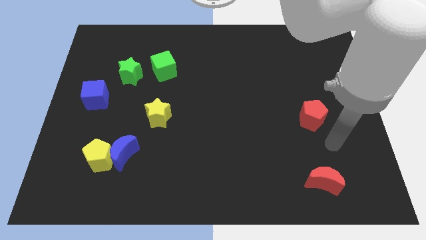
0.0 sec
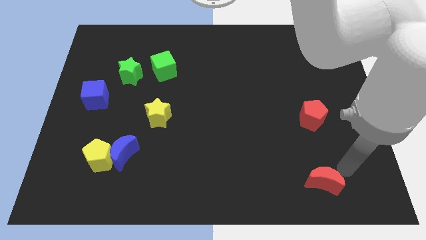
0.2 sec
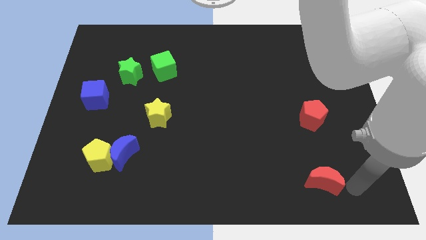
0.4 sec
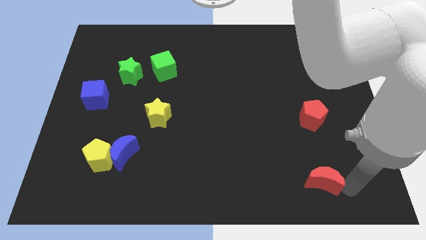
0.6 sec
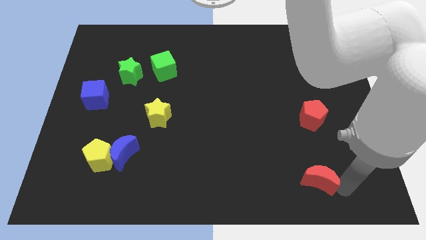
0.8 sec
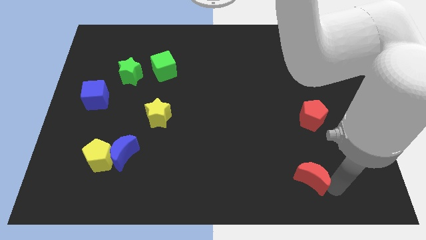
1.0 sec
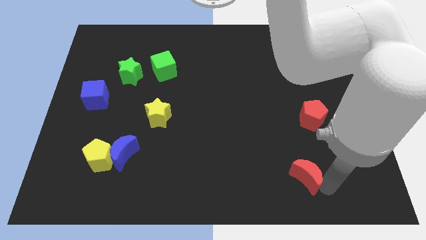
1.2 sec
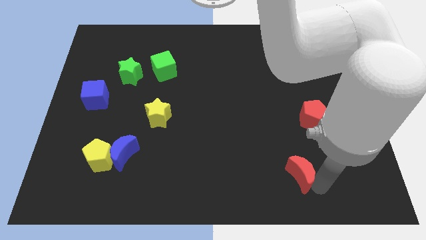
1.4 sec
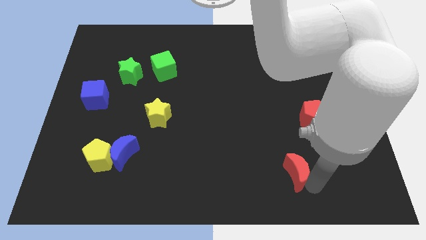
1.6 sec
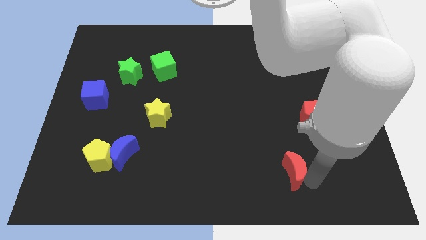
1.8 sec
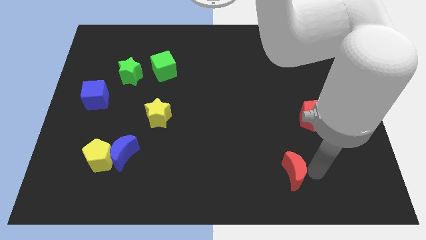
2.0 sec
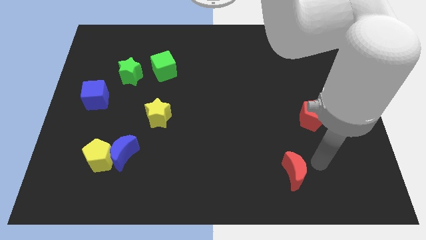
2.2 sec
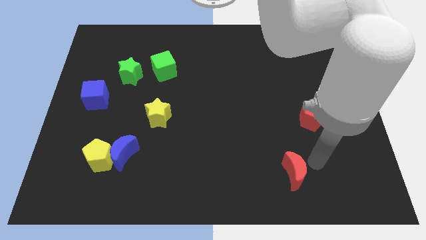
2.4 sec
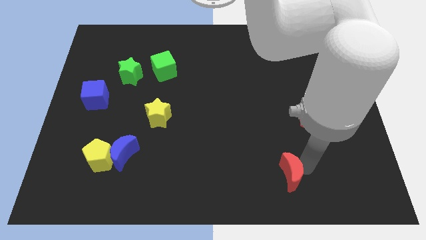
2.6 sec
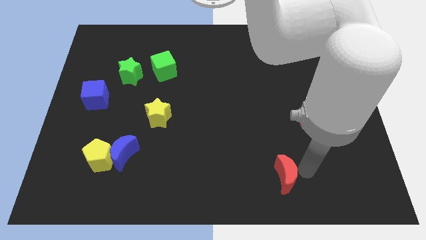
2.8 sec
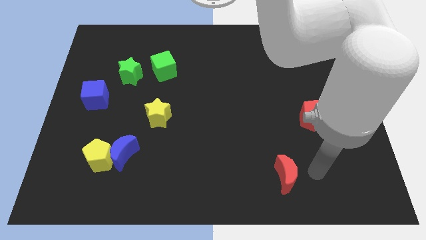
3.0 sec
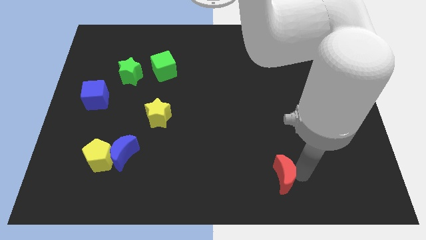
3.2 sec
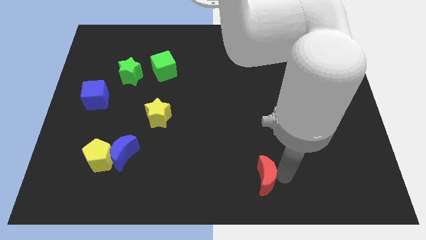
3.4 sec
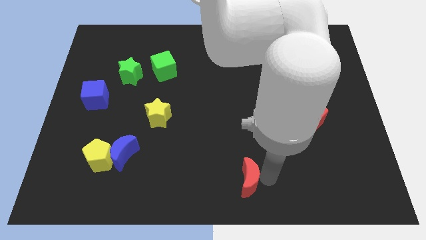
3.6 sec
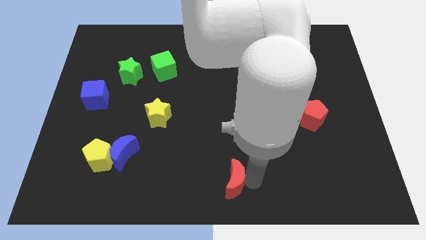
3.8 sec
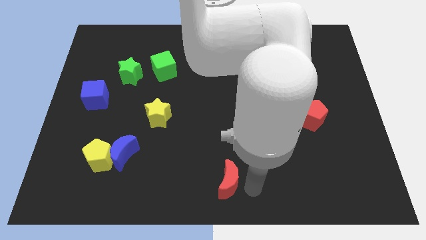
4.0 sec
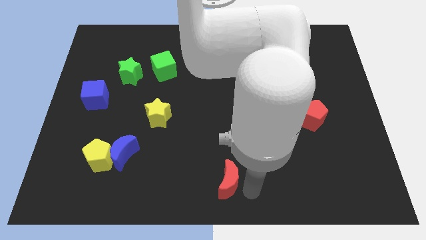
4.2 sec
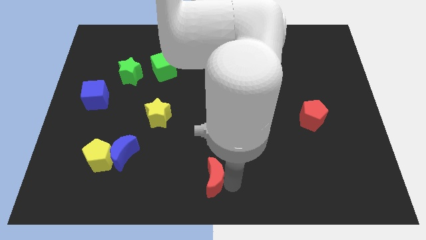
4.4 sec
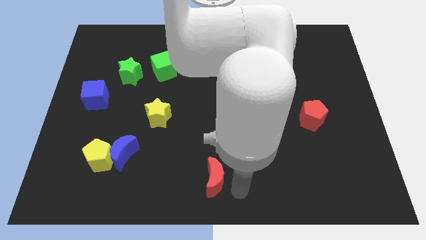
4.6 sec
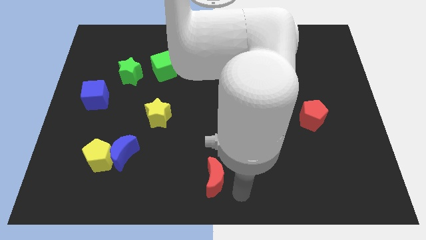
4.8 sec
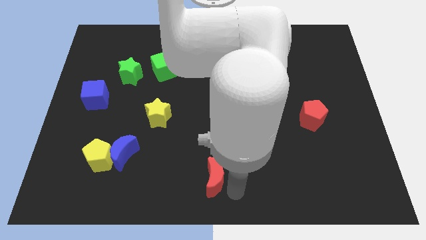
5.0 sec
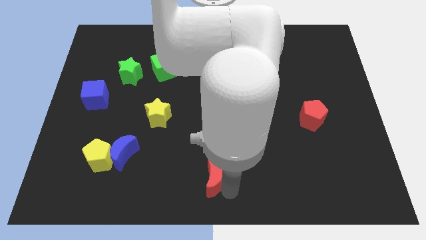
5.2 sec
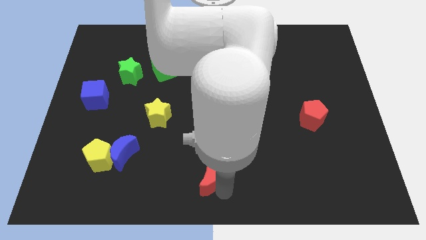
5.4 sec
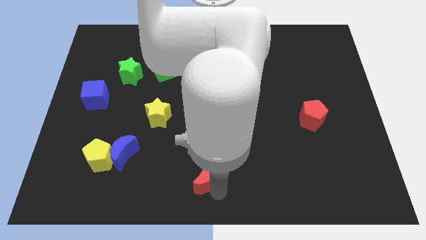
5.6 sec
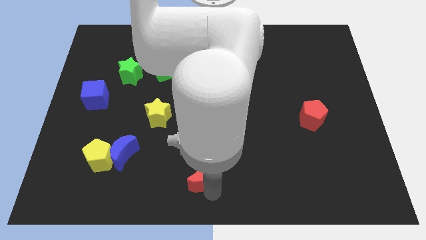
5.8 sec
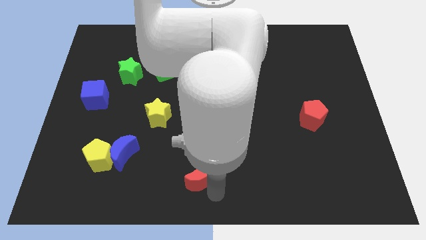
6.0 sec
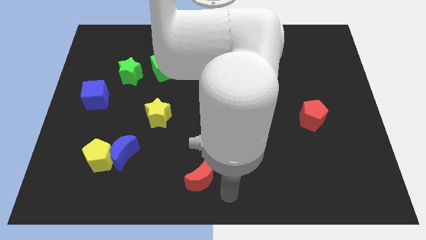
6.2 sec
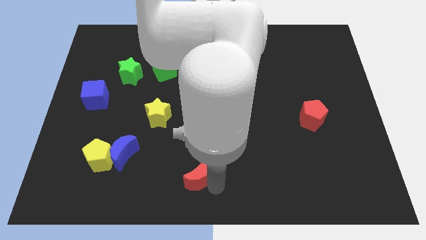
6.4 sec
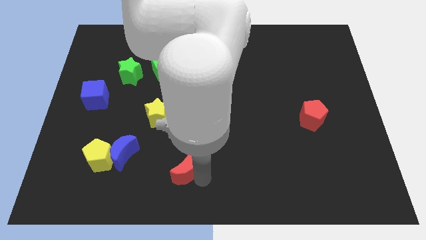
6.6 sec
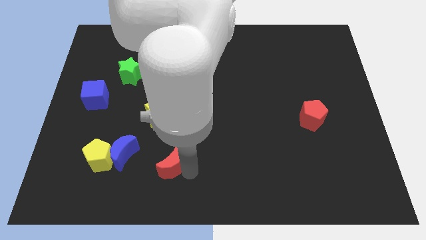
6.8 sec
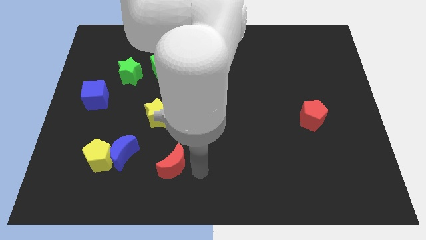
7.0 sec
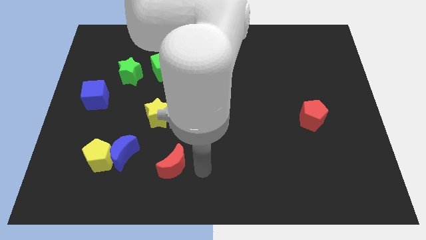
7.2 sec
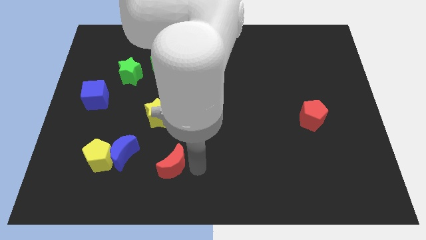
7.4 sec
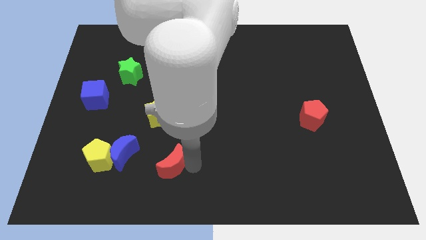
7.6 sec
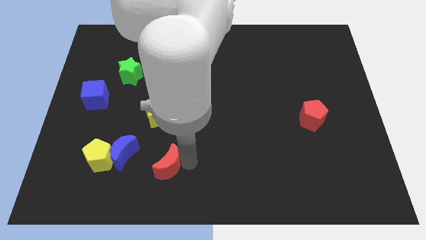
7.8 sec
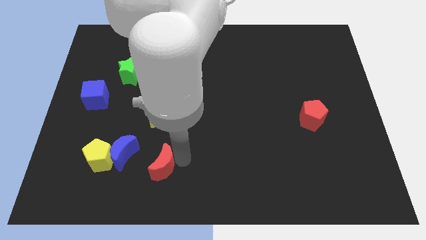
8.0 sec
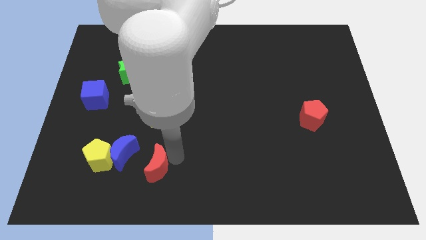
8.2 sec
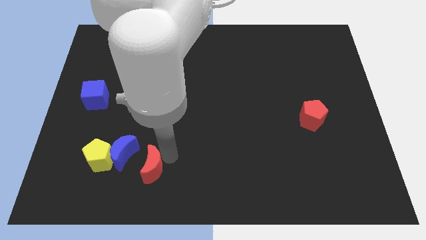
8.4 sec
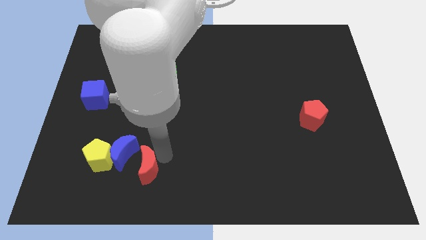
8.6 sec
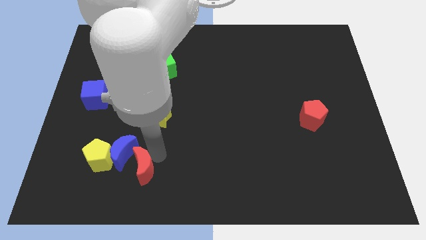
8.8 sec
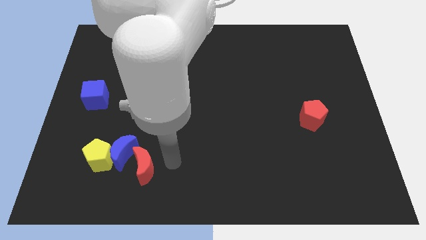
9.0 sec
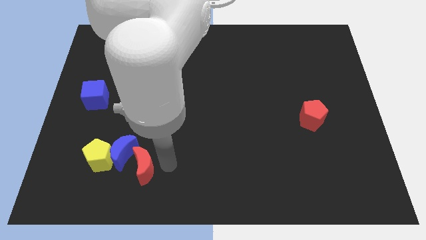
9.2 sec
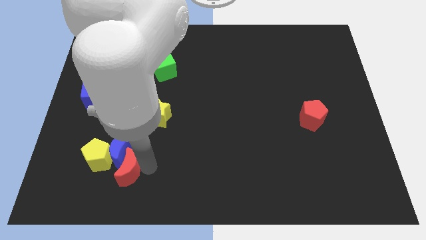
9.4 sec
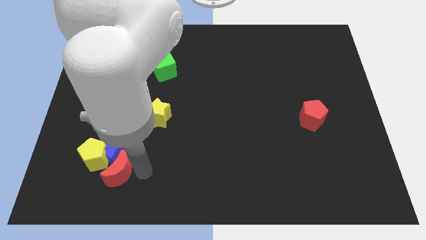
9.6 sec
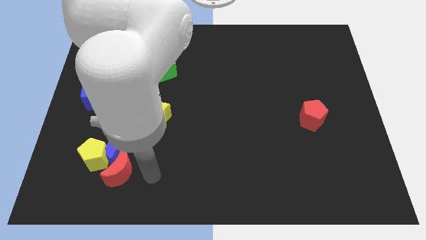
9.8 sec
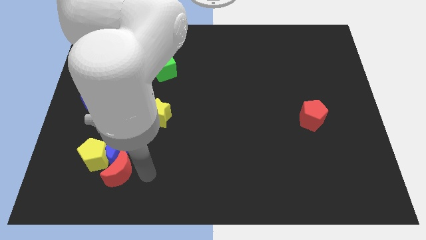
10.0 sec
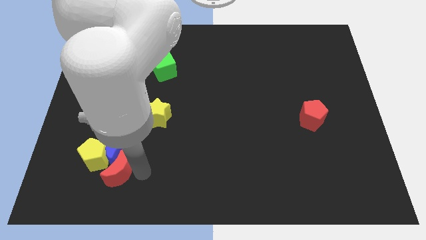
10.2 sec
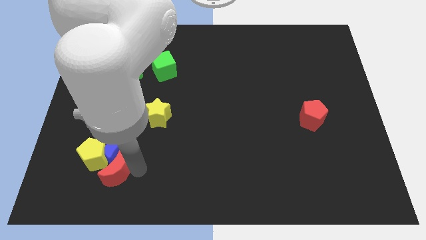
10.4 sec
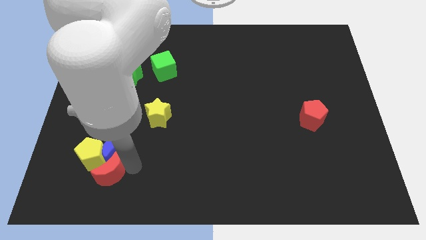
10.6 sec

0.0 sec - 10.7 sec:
put the red moon towards the yellow pentagon

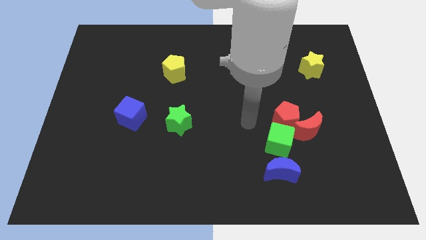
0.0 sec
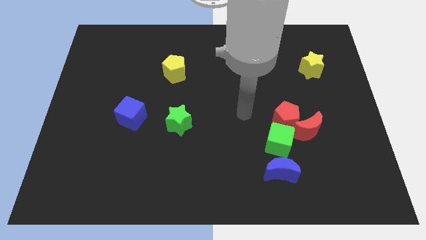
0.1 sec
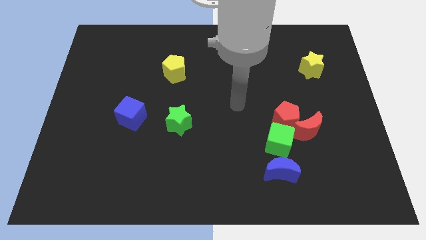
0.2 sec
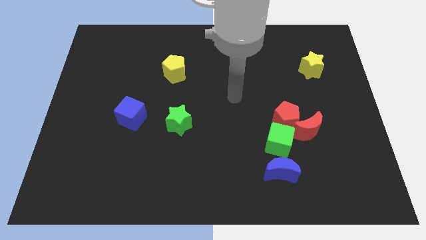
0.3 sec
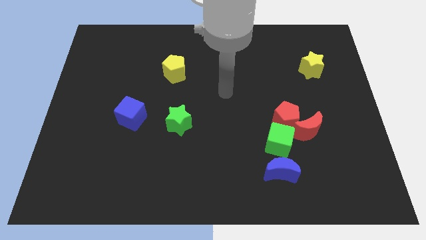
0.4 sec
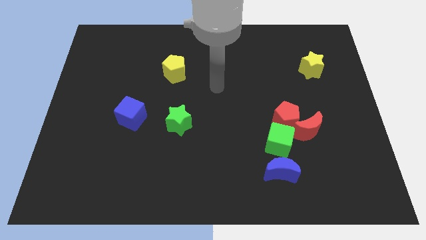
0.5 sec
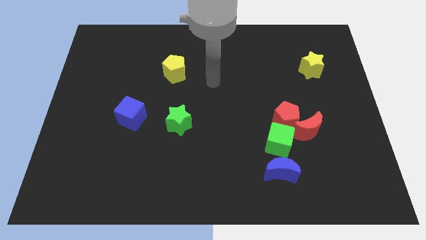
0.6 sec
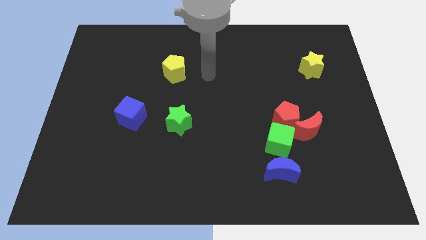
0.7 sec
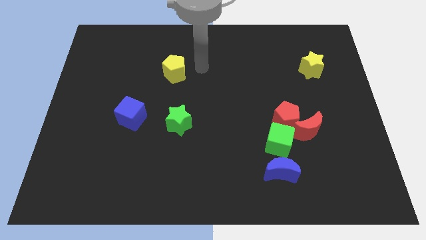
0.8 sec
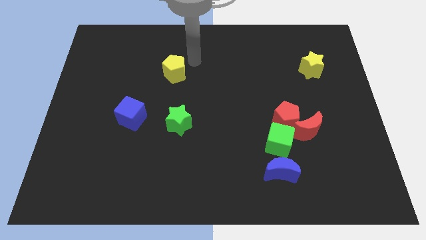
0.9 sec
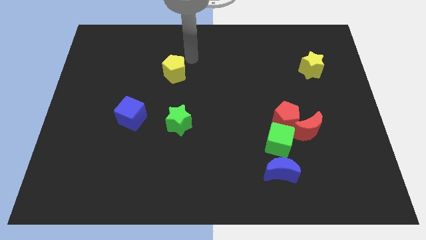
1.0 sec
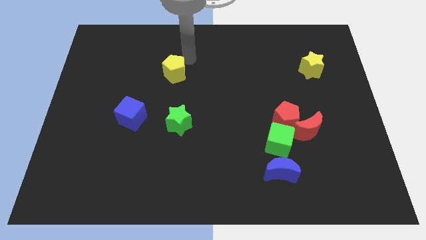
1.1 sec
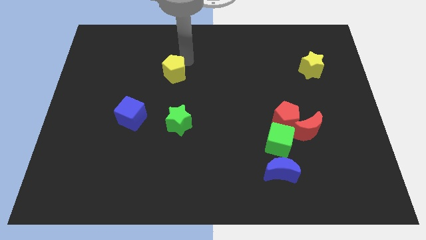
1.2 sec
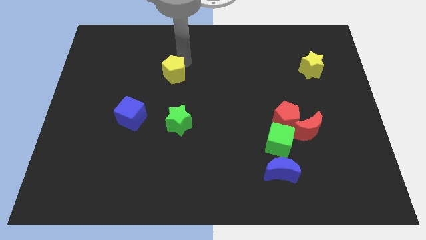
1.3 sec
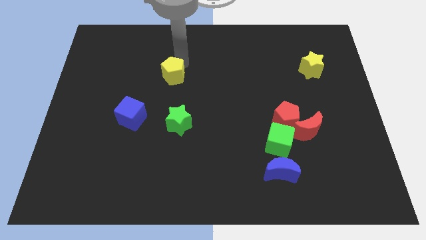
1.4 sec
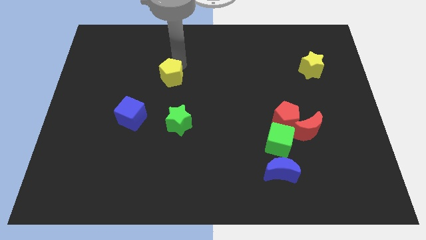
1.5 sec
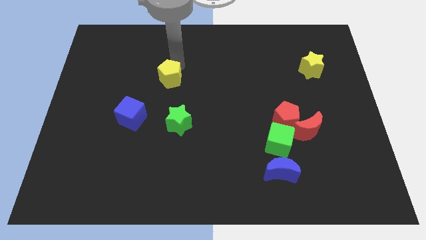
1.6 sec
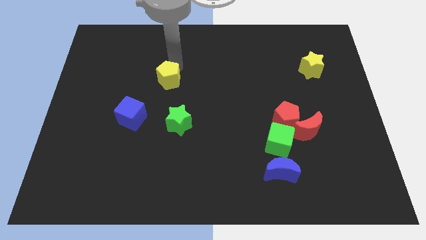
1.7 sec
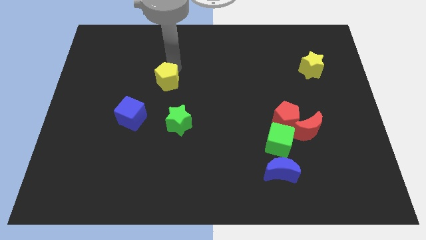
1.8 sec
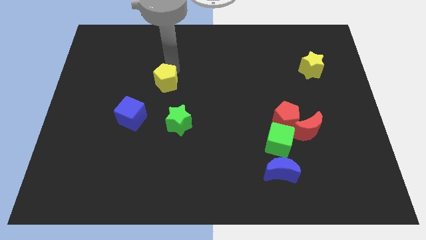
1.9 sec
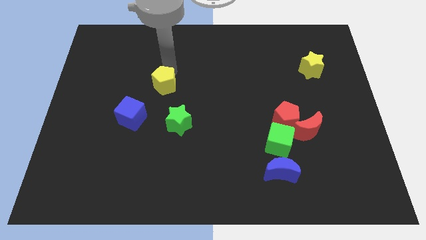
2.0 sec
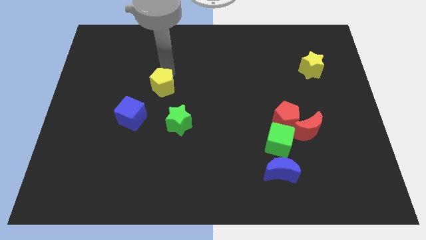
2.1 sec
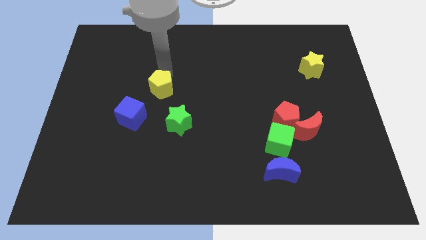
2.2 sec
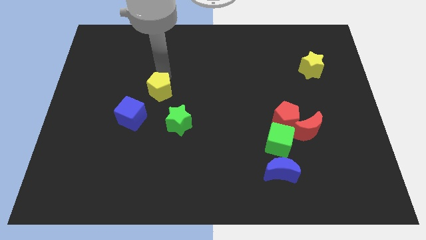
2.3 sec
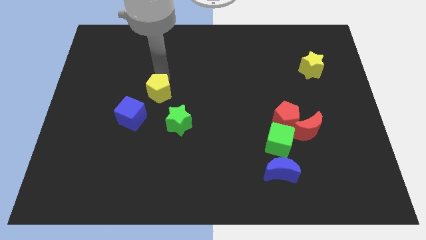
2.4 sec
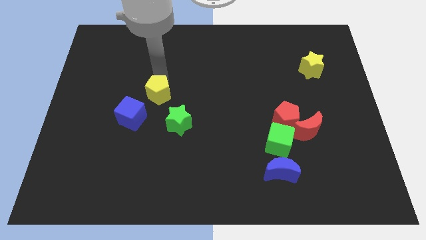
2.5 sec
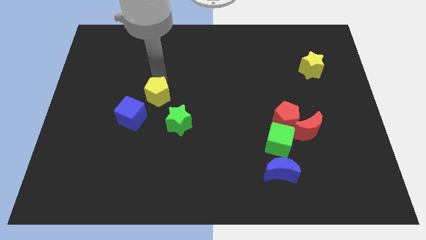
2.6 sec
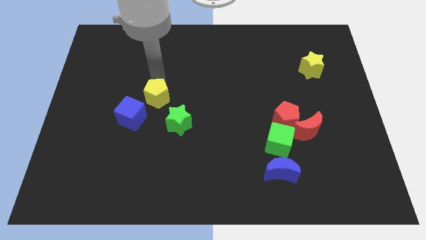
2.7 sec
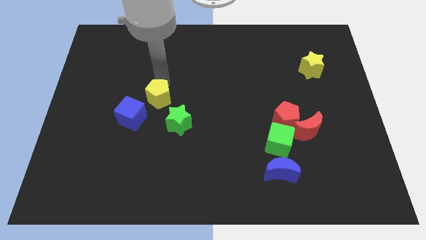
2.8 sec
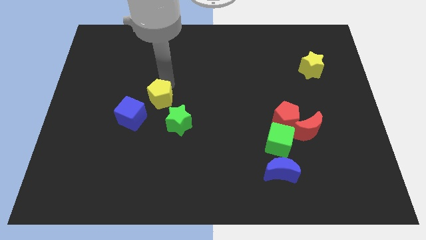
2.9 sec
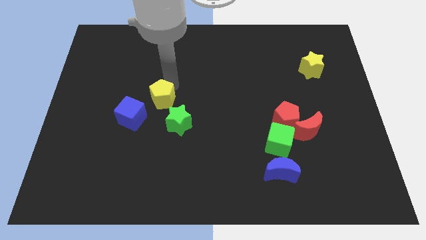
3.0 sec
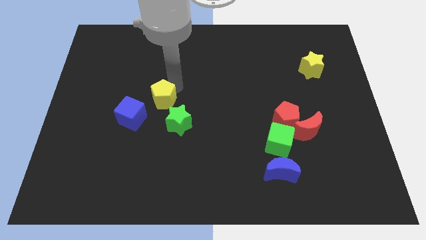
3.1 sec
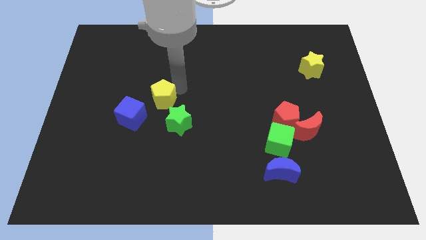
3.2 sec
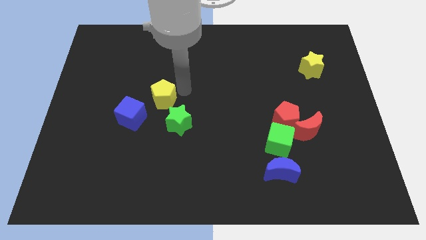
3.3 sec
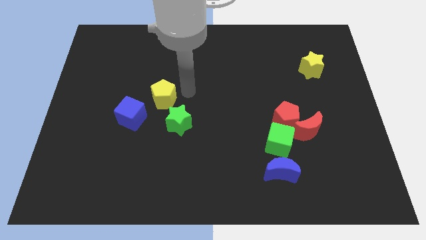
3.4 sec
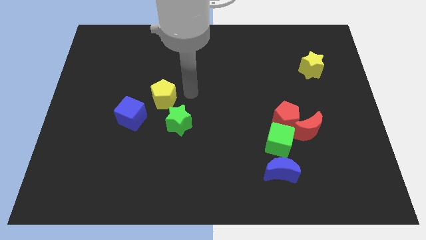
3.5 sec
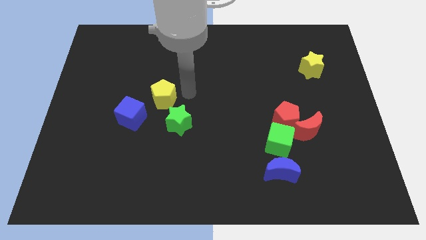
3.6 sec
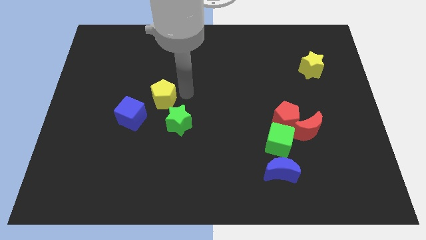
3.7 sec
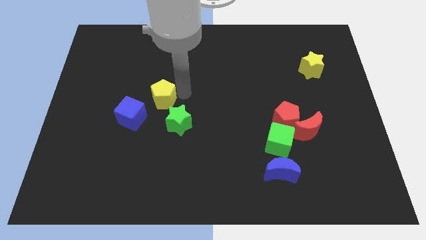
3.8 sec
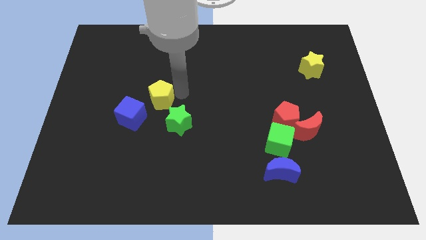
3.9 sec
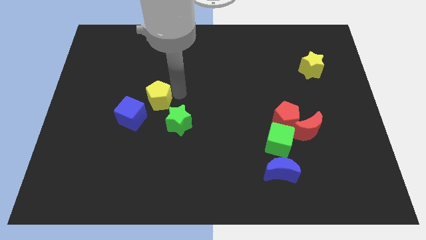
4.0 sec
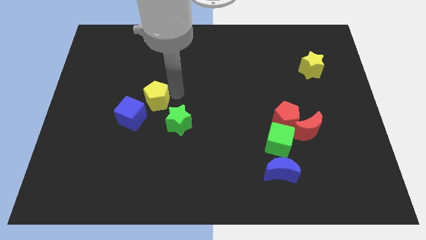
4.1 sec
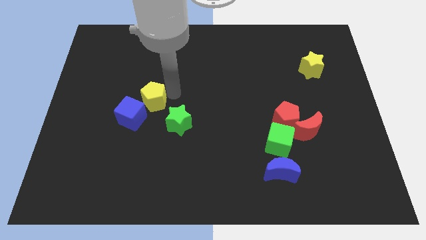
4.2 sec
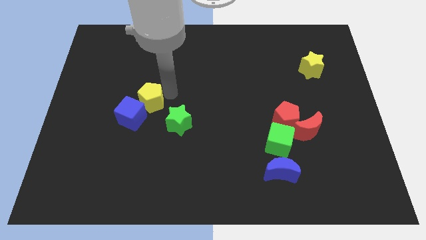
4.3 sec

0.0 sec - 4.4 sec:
move the yellow pentagon to the blue cube
